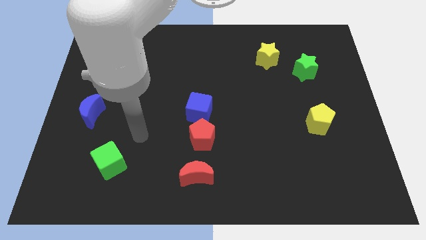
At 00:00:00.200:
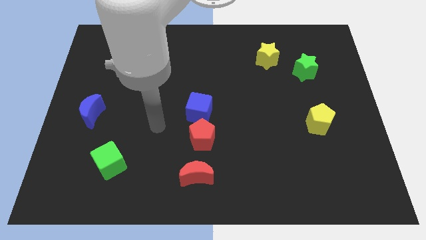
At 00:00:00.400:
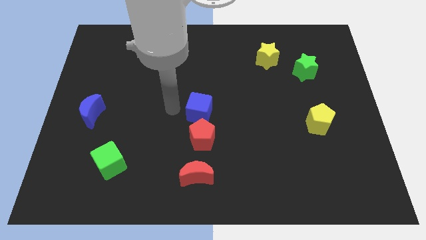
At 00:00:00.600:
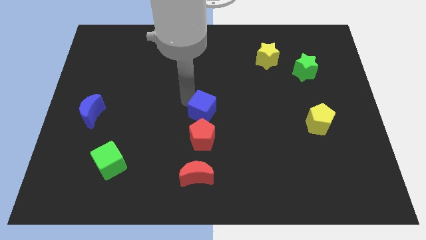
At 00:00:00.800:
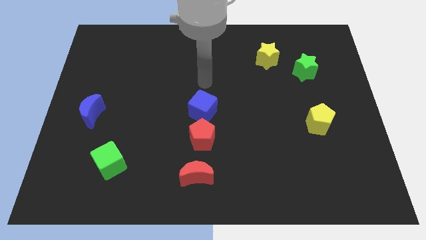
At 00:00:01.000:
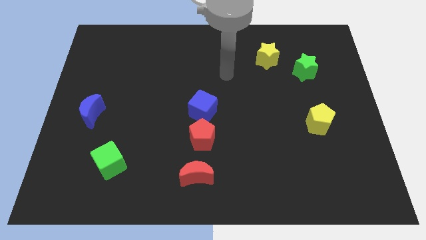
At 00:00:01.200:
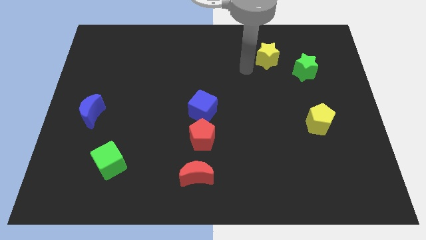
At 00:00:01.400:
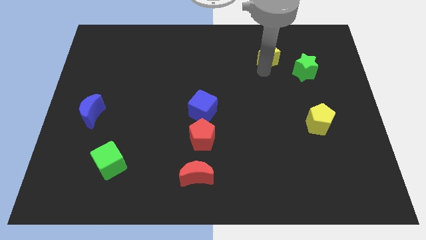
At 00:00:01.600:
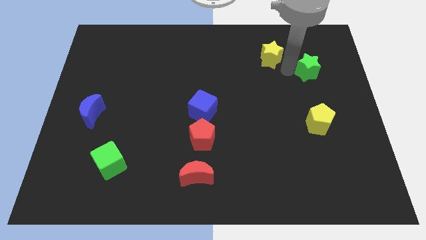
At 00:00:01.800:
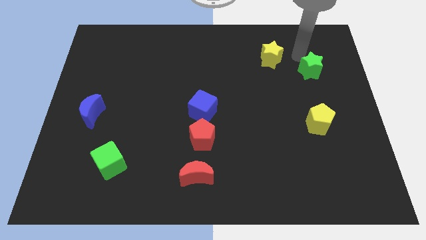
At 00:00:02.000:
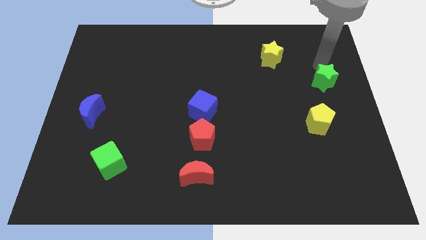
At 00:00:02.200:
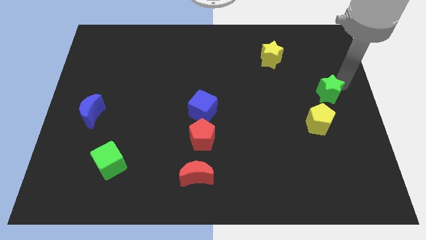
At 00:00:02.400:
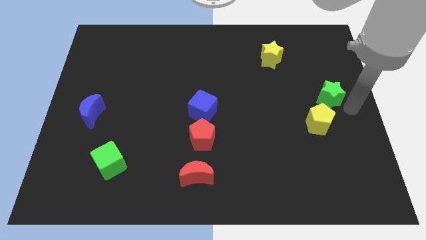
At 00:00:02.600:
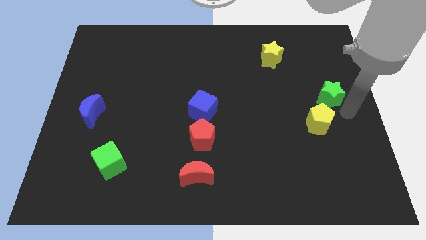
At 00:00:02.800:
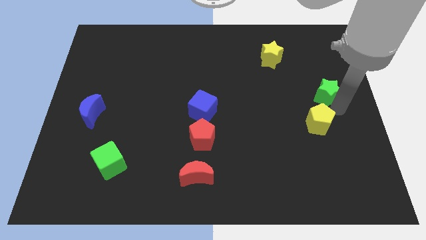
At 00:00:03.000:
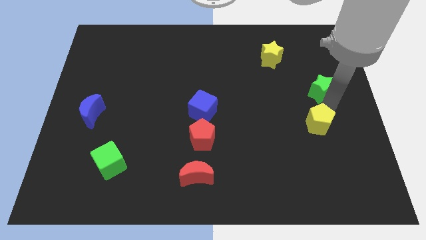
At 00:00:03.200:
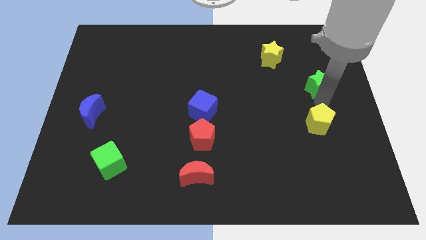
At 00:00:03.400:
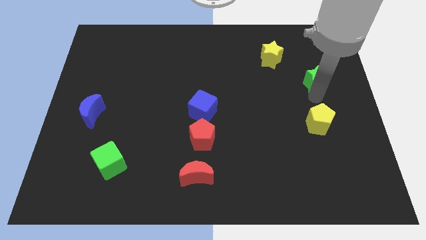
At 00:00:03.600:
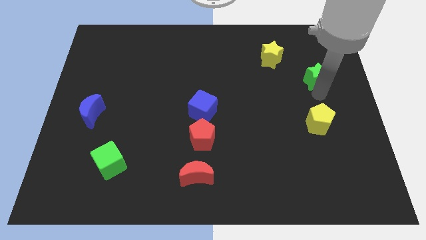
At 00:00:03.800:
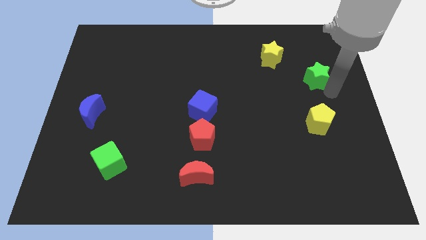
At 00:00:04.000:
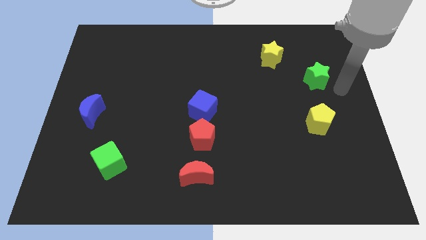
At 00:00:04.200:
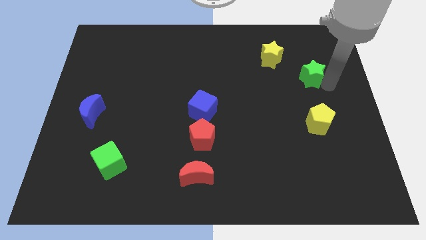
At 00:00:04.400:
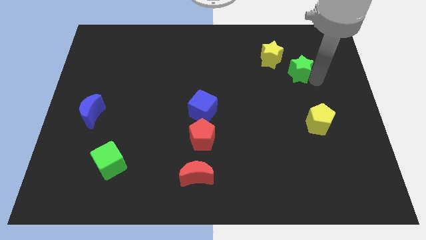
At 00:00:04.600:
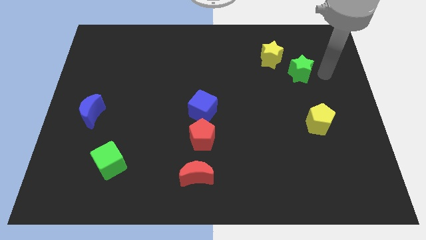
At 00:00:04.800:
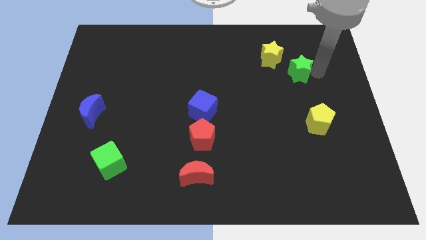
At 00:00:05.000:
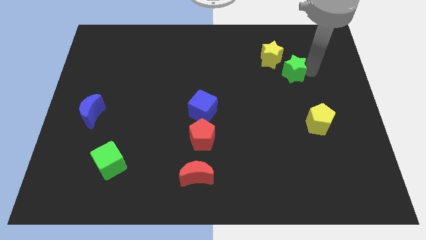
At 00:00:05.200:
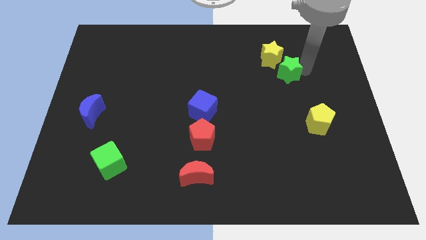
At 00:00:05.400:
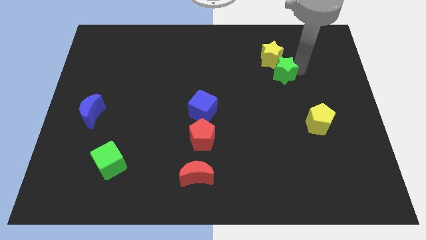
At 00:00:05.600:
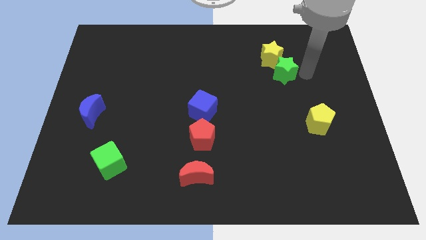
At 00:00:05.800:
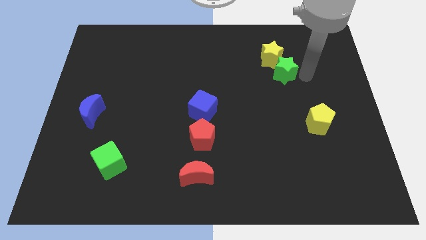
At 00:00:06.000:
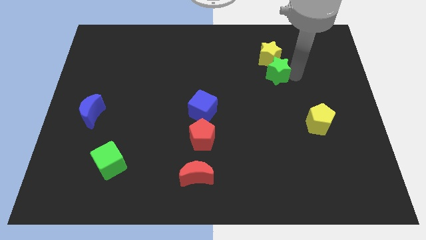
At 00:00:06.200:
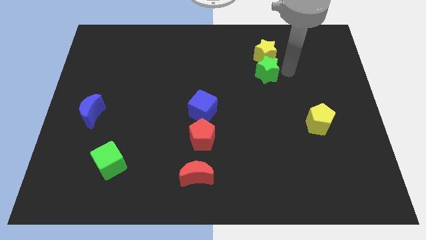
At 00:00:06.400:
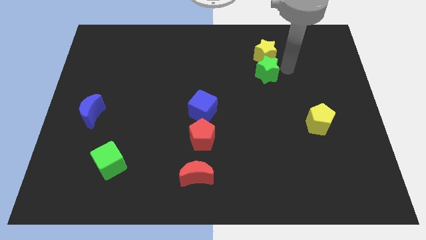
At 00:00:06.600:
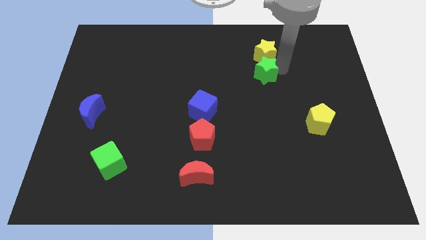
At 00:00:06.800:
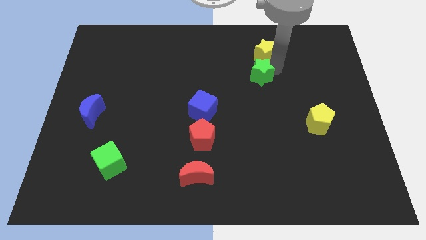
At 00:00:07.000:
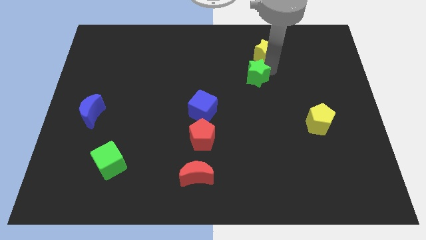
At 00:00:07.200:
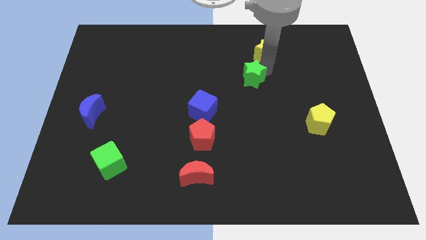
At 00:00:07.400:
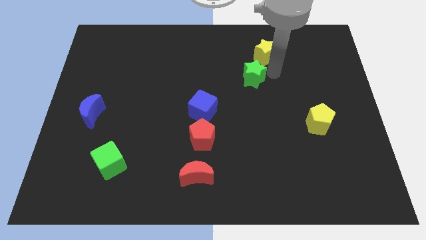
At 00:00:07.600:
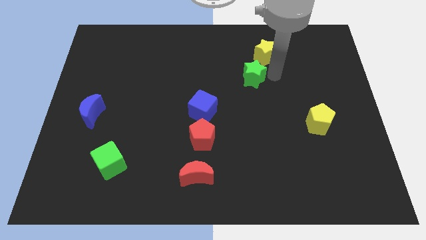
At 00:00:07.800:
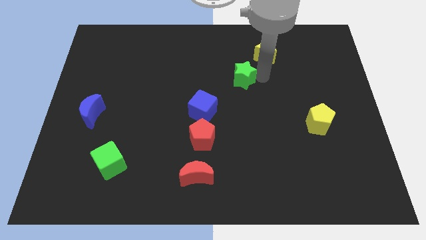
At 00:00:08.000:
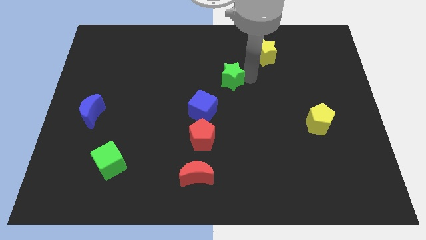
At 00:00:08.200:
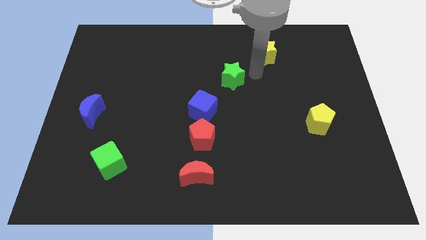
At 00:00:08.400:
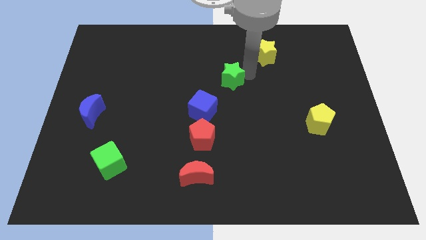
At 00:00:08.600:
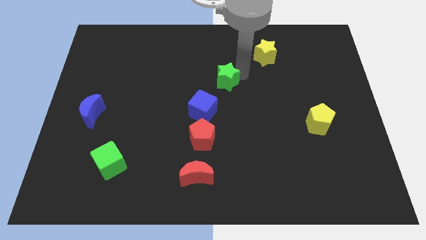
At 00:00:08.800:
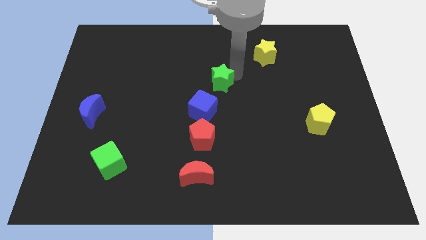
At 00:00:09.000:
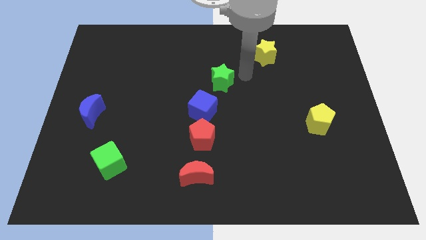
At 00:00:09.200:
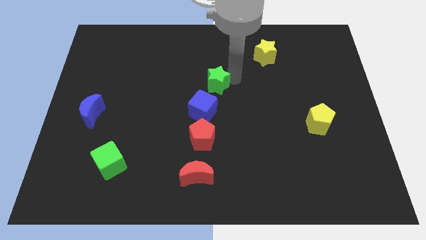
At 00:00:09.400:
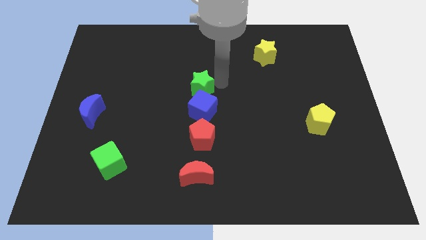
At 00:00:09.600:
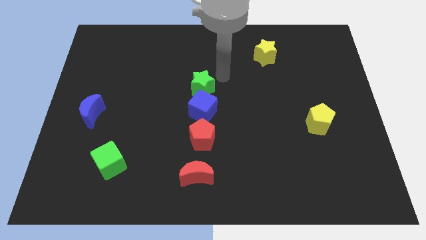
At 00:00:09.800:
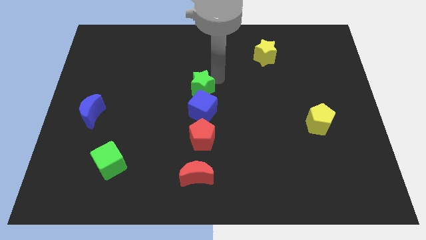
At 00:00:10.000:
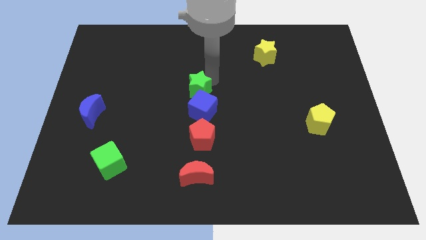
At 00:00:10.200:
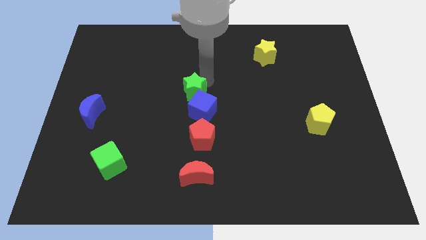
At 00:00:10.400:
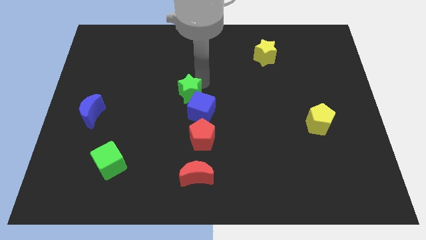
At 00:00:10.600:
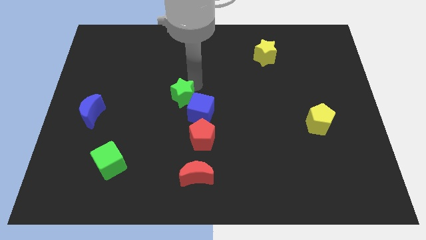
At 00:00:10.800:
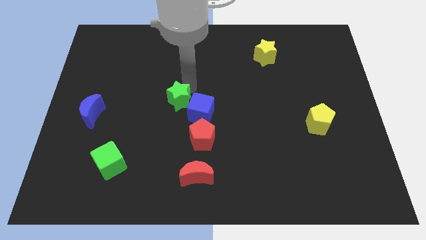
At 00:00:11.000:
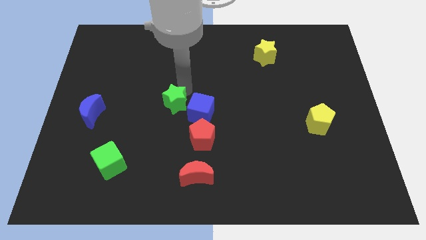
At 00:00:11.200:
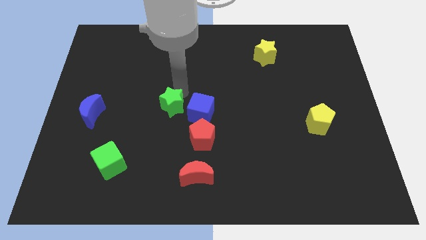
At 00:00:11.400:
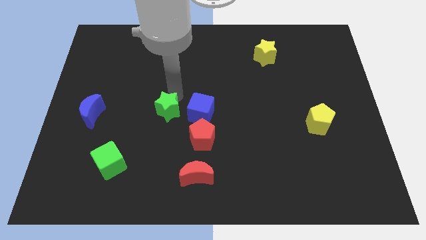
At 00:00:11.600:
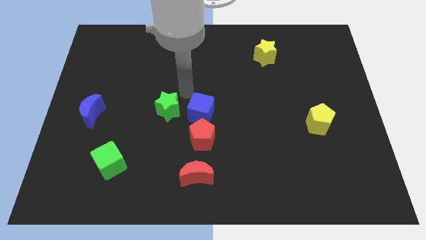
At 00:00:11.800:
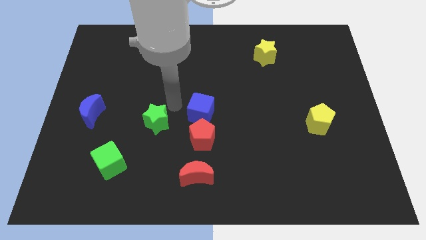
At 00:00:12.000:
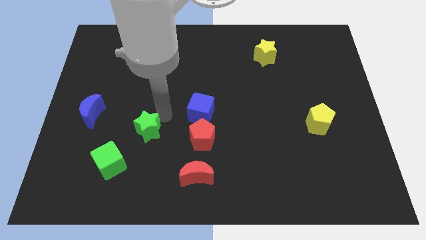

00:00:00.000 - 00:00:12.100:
move the green star to the top right side of the green cube

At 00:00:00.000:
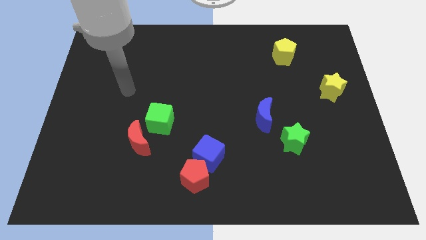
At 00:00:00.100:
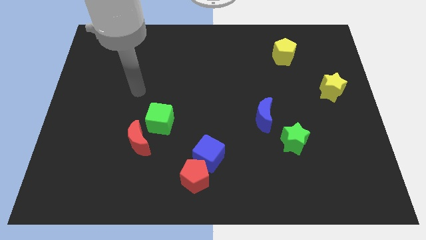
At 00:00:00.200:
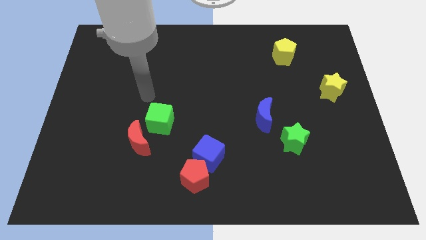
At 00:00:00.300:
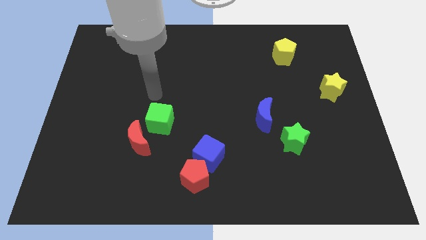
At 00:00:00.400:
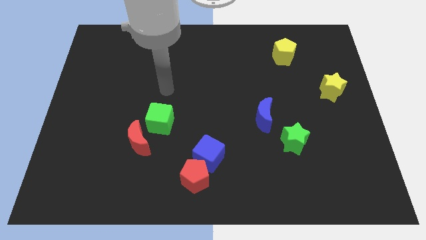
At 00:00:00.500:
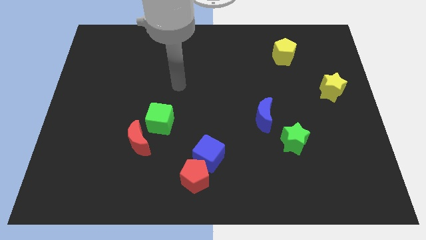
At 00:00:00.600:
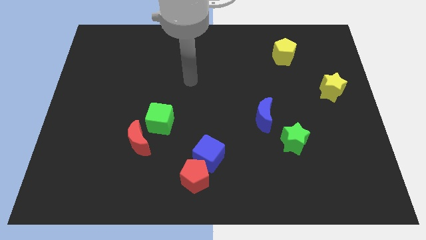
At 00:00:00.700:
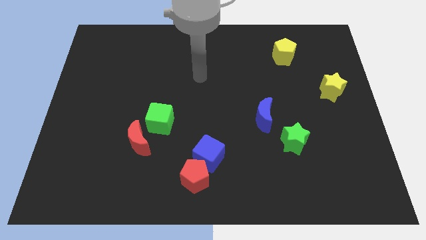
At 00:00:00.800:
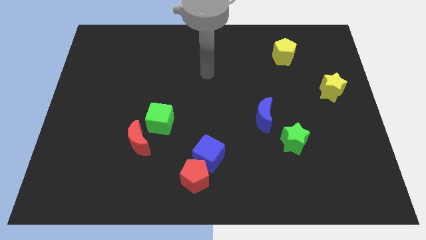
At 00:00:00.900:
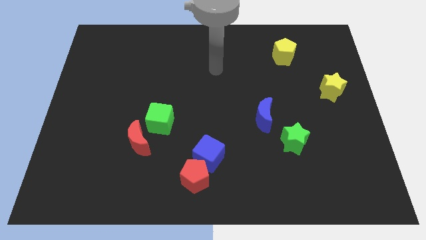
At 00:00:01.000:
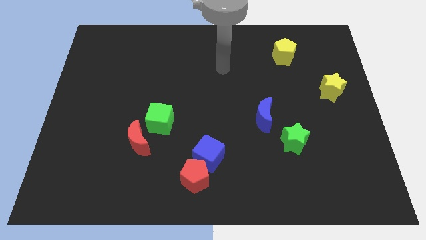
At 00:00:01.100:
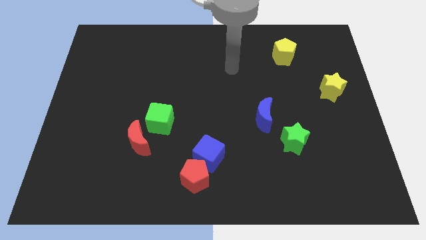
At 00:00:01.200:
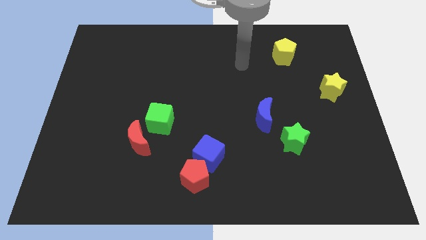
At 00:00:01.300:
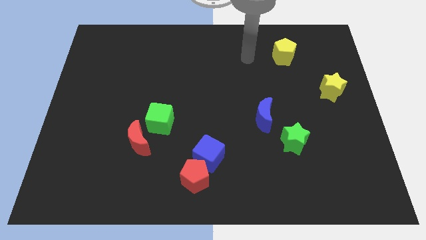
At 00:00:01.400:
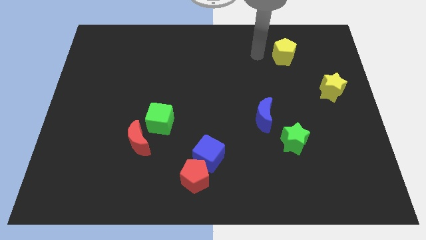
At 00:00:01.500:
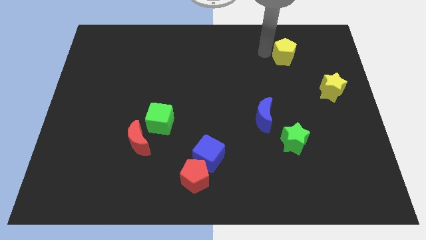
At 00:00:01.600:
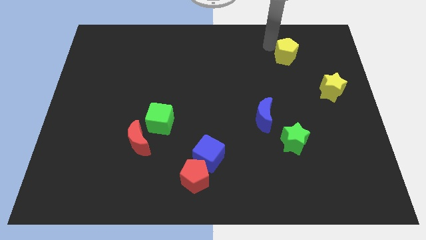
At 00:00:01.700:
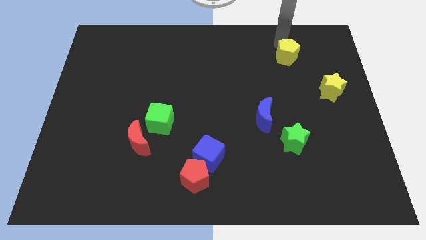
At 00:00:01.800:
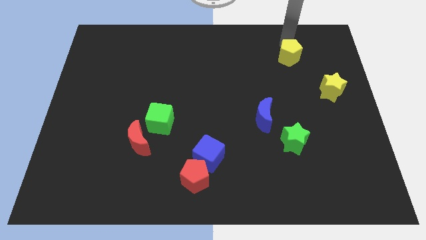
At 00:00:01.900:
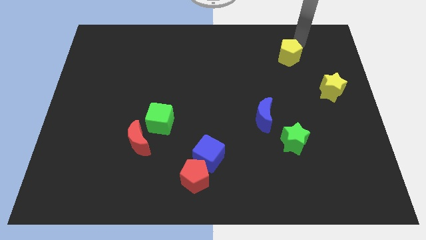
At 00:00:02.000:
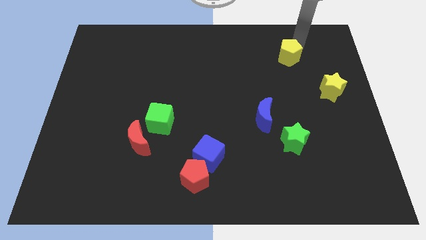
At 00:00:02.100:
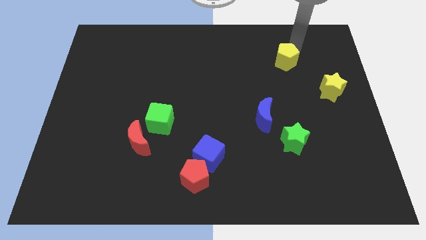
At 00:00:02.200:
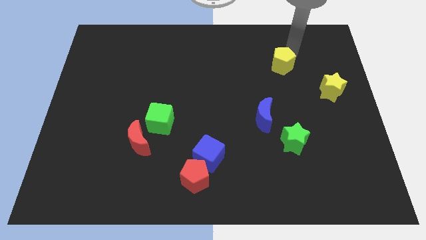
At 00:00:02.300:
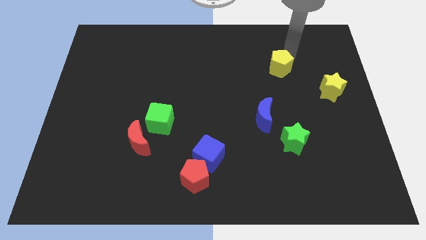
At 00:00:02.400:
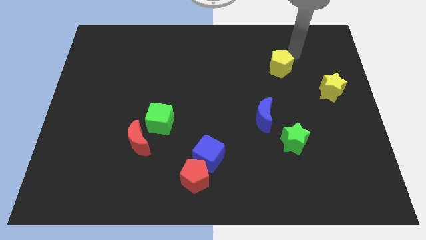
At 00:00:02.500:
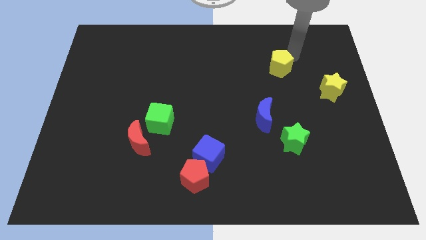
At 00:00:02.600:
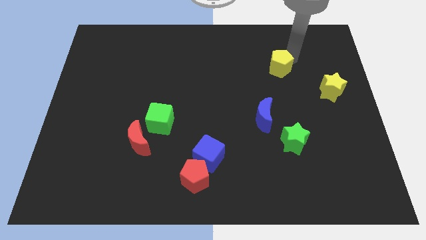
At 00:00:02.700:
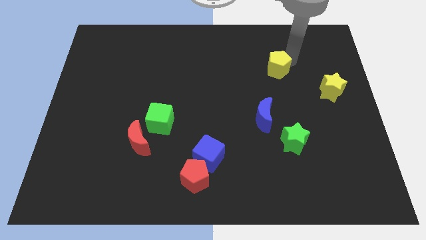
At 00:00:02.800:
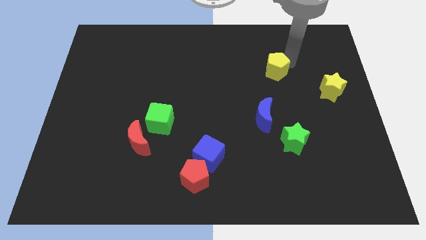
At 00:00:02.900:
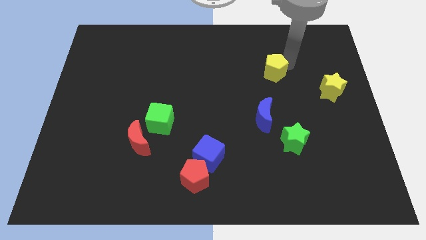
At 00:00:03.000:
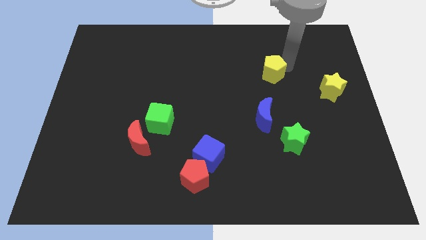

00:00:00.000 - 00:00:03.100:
slide the yellow pentagon to the top of the blue moon
